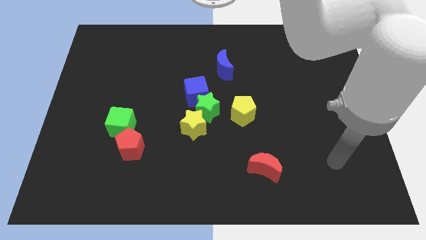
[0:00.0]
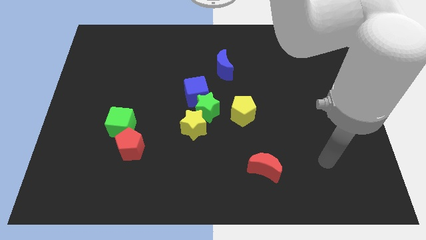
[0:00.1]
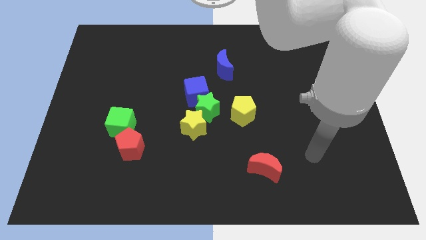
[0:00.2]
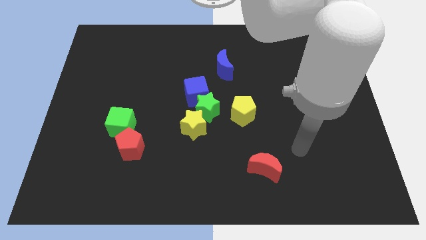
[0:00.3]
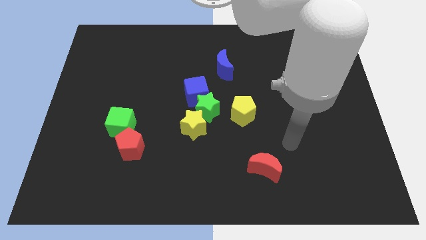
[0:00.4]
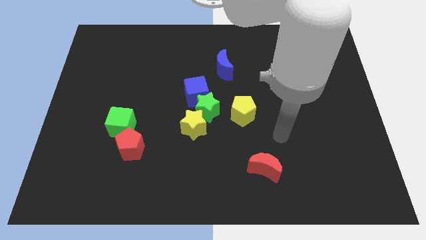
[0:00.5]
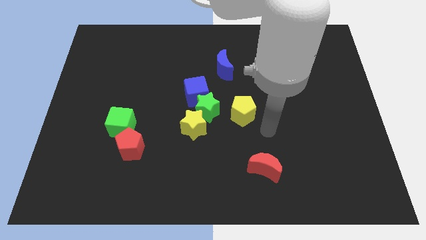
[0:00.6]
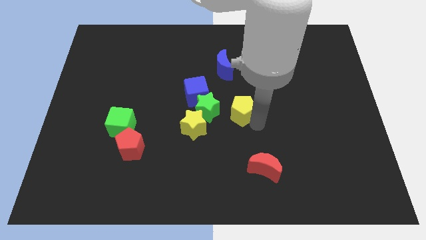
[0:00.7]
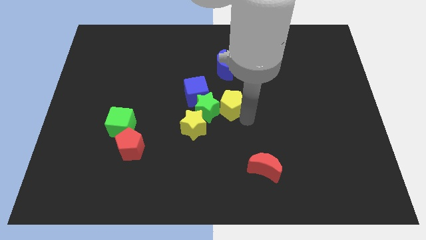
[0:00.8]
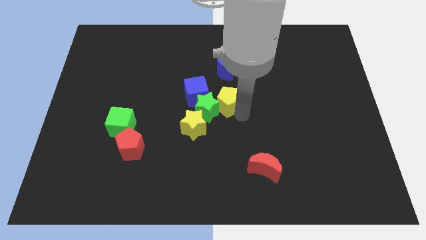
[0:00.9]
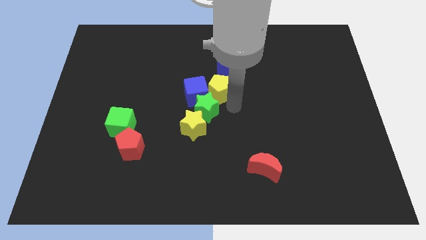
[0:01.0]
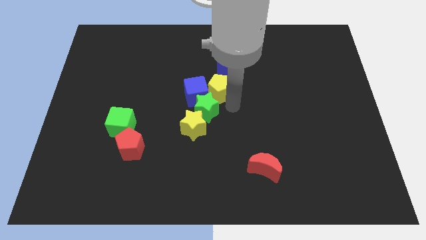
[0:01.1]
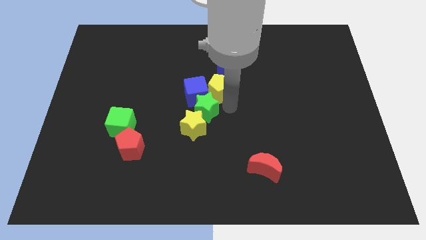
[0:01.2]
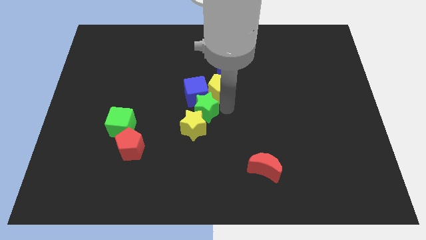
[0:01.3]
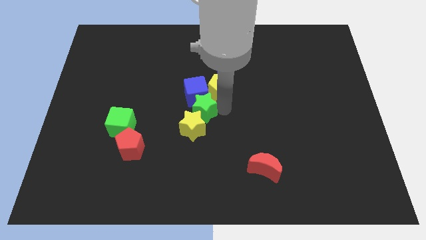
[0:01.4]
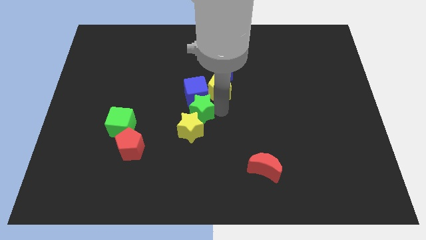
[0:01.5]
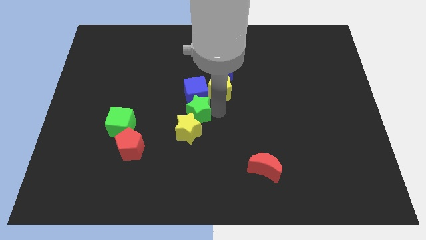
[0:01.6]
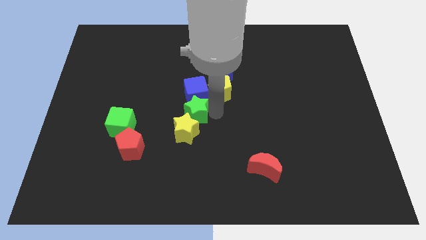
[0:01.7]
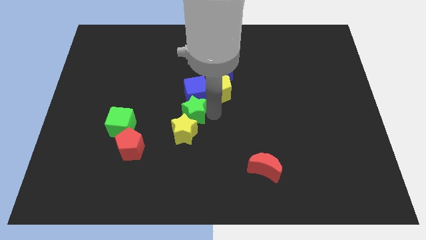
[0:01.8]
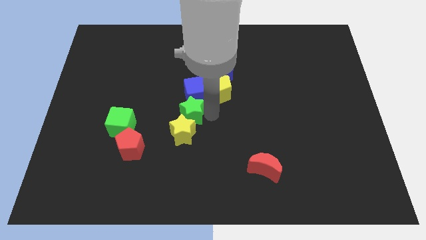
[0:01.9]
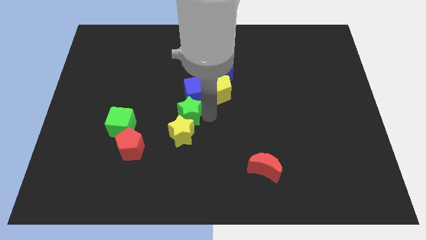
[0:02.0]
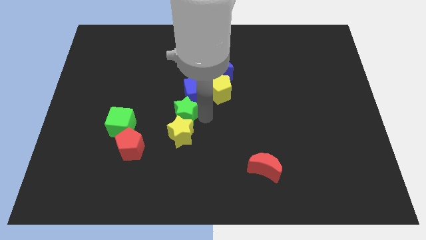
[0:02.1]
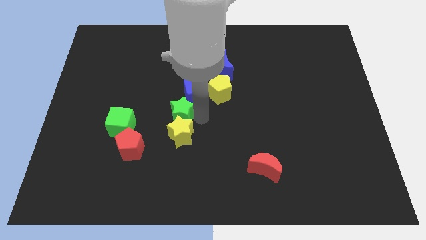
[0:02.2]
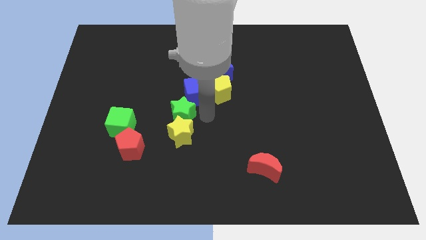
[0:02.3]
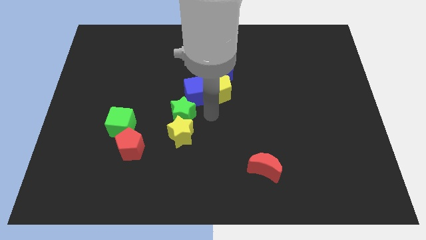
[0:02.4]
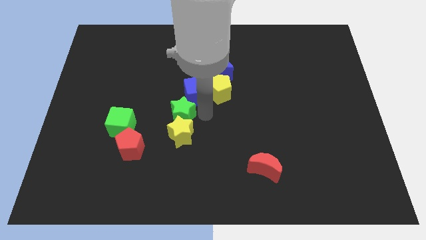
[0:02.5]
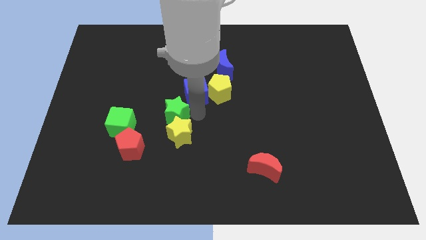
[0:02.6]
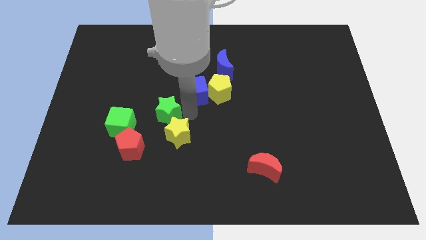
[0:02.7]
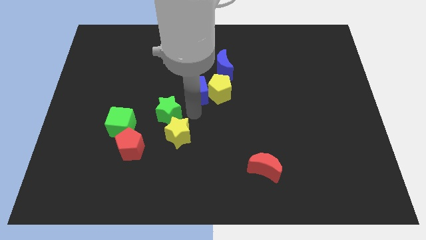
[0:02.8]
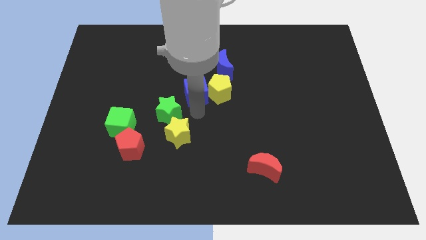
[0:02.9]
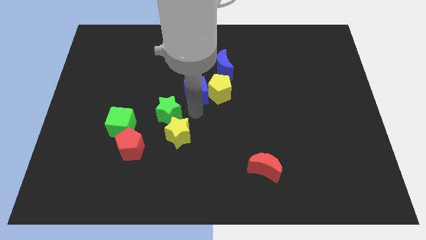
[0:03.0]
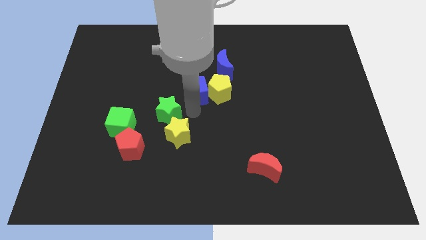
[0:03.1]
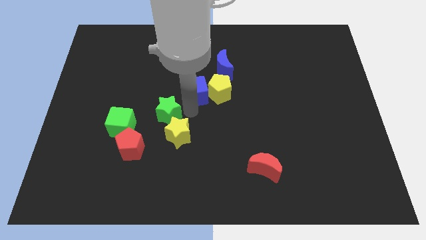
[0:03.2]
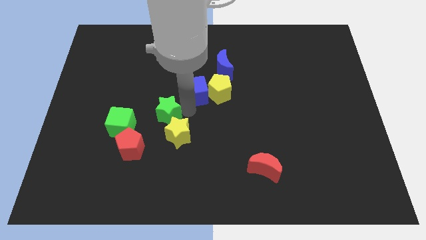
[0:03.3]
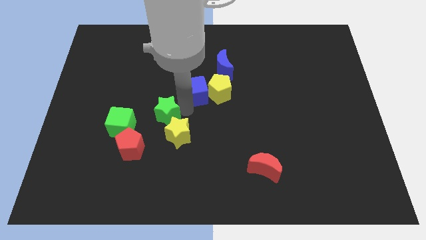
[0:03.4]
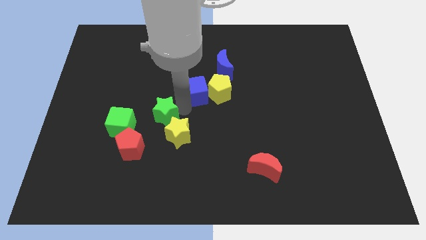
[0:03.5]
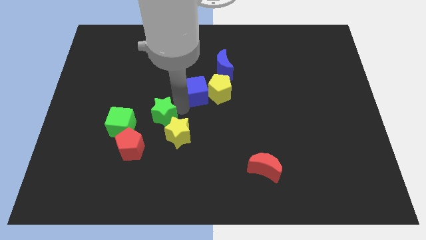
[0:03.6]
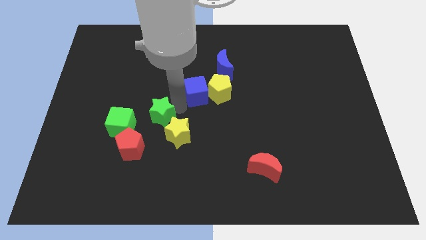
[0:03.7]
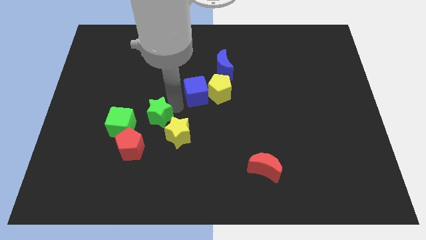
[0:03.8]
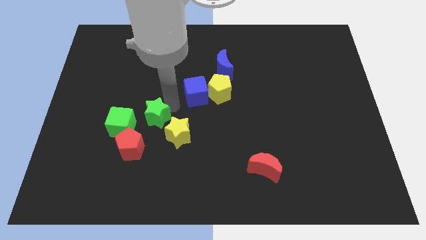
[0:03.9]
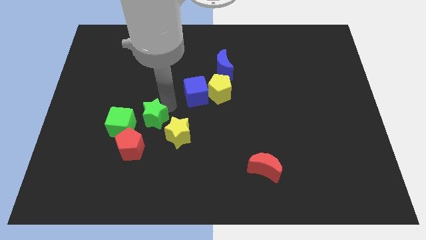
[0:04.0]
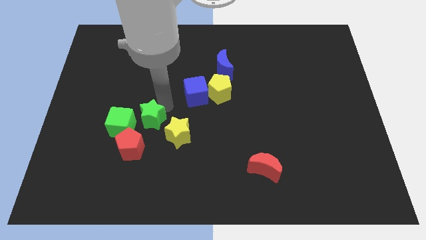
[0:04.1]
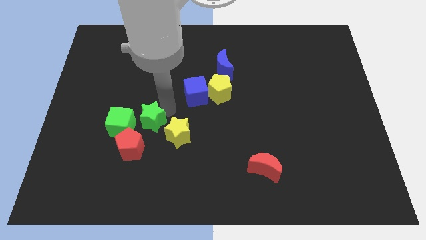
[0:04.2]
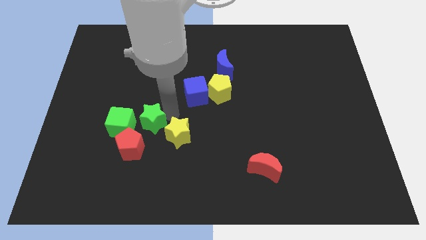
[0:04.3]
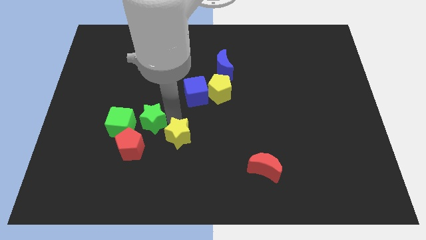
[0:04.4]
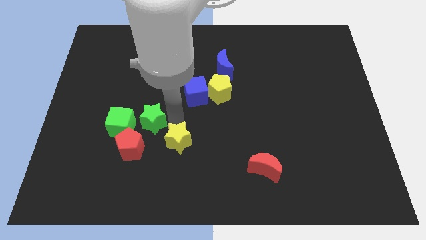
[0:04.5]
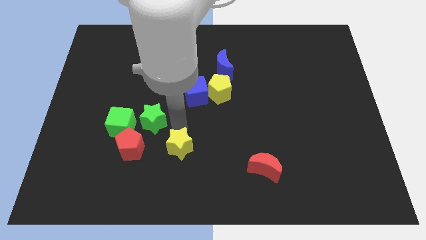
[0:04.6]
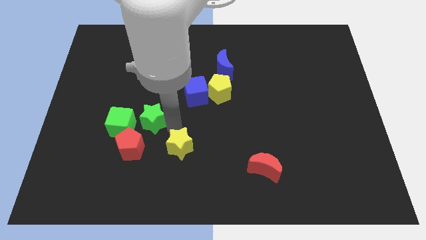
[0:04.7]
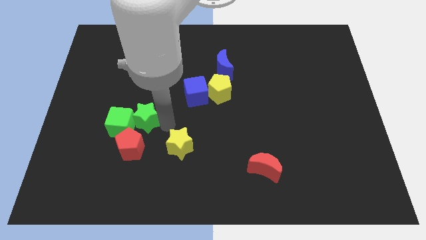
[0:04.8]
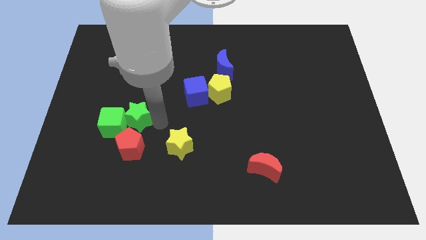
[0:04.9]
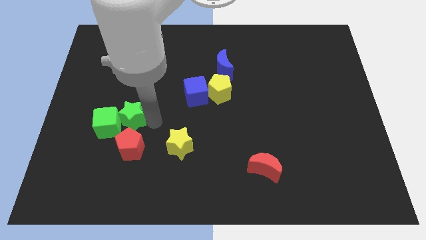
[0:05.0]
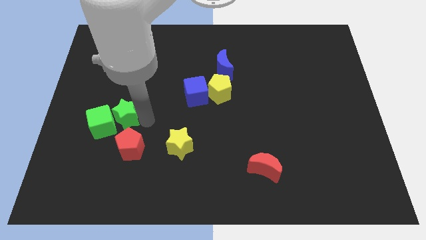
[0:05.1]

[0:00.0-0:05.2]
push the green star to the top left of the red pentagon

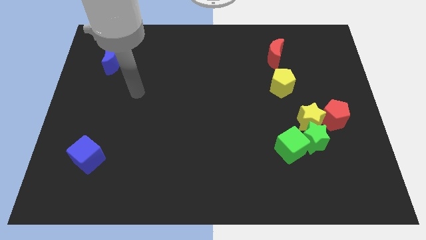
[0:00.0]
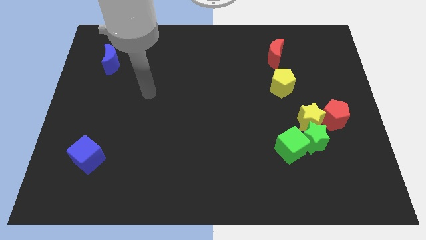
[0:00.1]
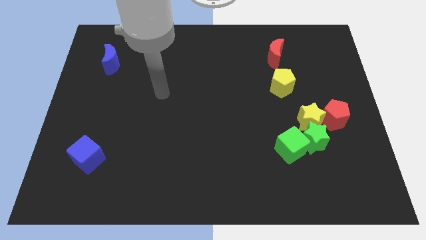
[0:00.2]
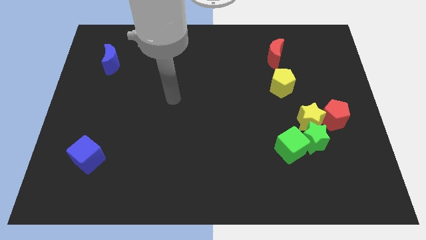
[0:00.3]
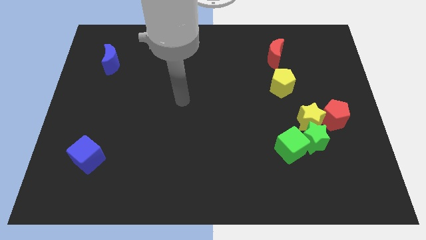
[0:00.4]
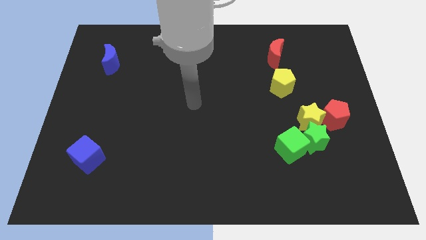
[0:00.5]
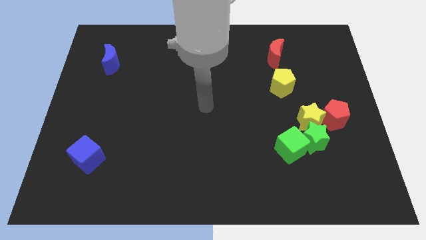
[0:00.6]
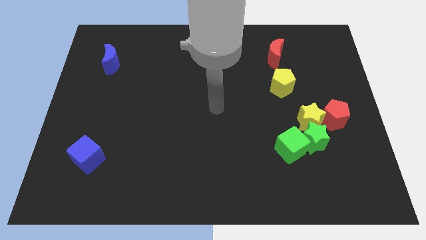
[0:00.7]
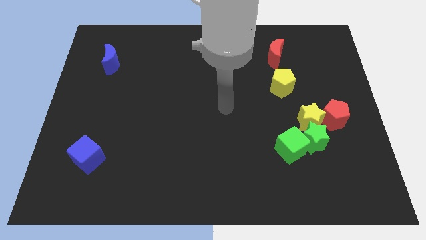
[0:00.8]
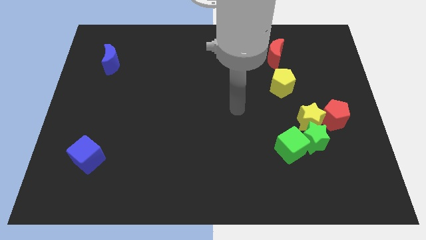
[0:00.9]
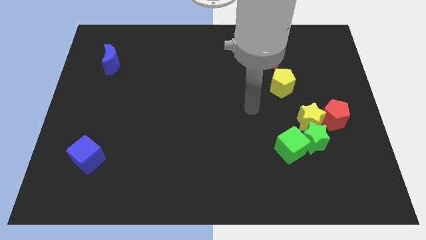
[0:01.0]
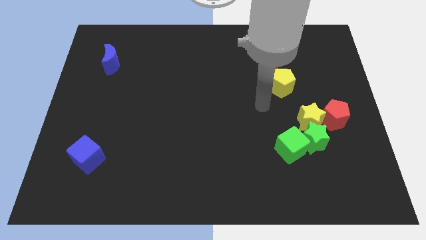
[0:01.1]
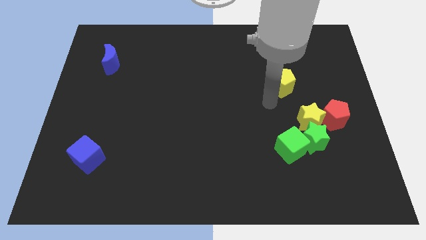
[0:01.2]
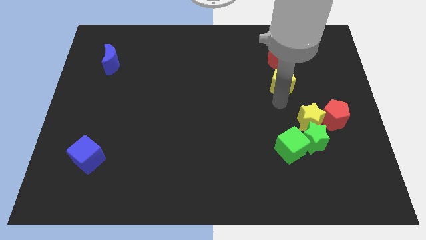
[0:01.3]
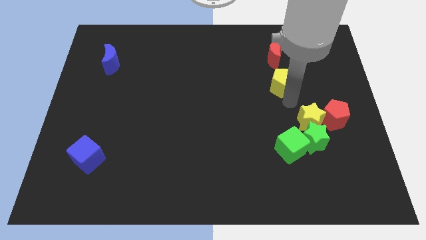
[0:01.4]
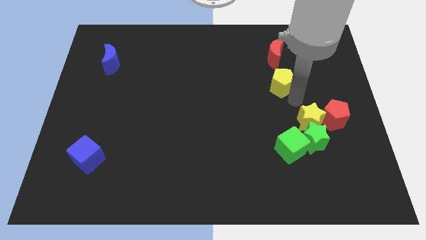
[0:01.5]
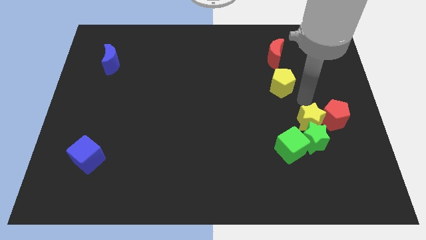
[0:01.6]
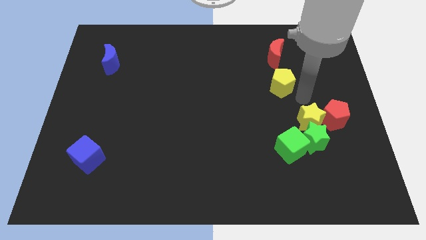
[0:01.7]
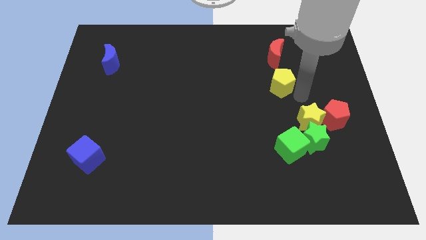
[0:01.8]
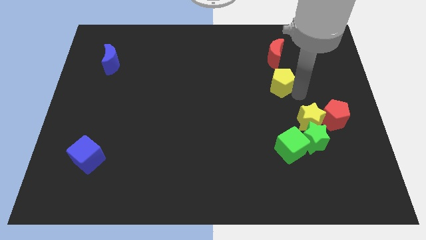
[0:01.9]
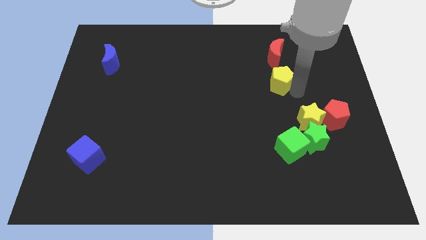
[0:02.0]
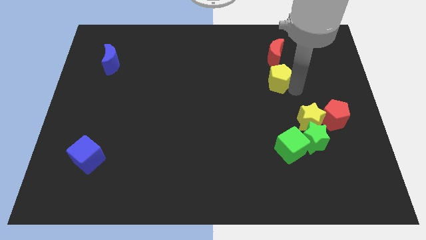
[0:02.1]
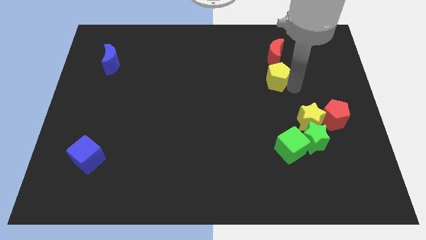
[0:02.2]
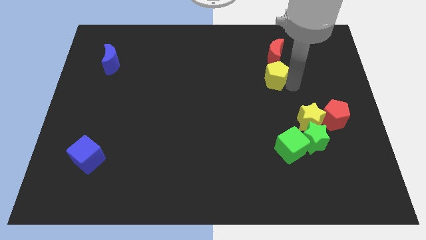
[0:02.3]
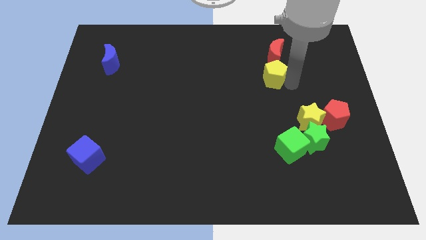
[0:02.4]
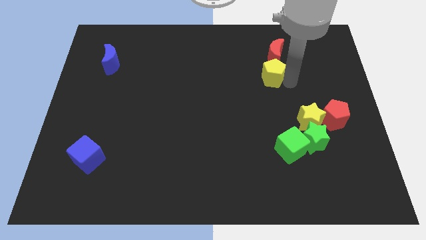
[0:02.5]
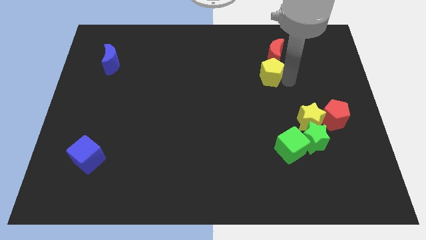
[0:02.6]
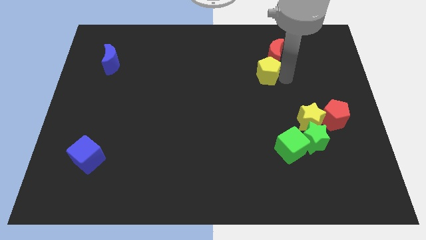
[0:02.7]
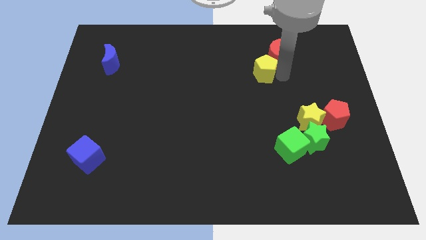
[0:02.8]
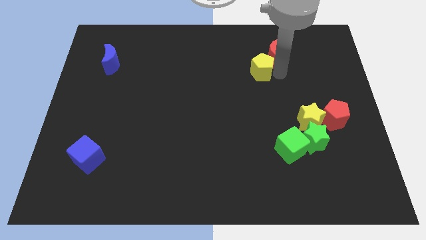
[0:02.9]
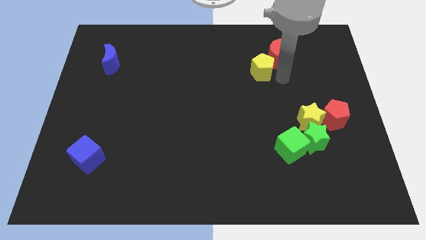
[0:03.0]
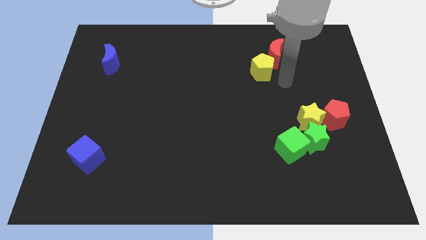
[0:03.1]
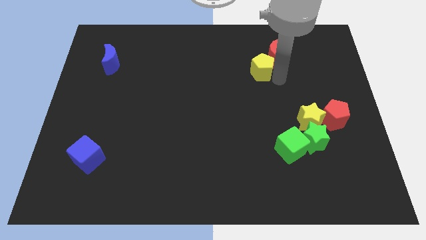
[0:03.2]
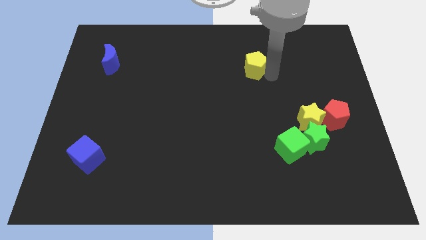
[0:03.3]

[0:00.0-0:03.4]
push the yellow pentagon to the left side of the red moon
